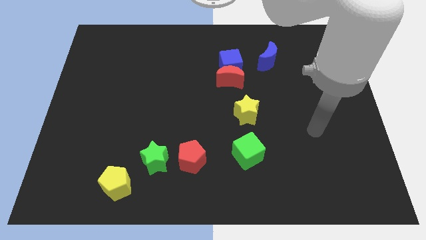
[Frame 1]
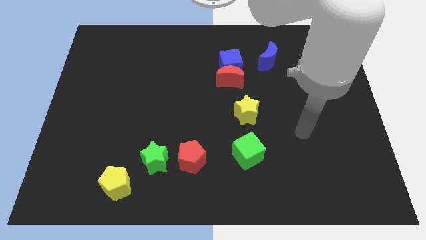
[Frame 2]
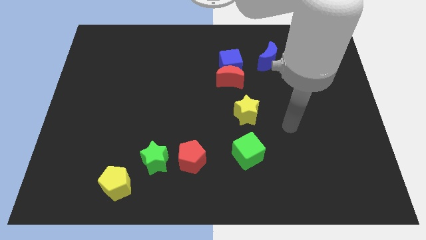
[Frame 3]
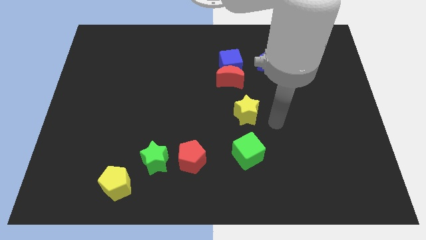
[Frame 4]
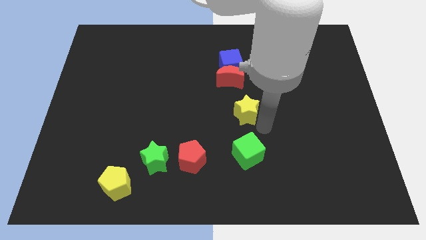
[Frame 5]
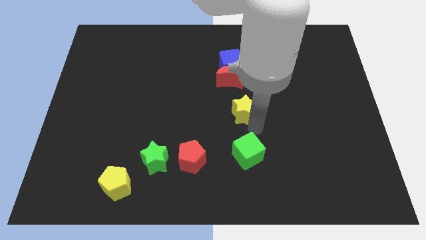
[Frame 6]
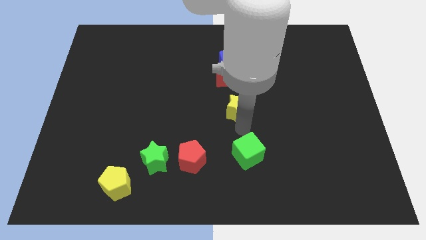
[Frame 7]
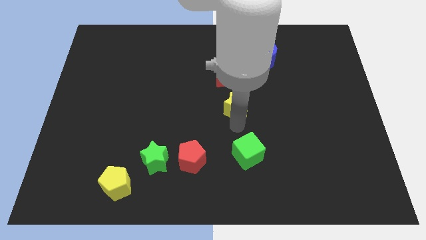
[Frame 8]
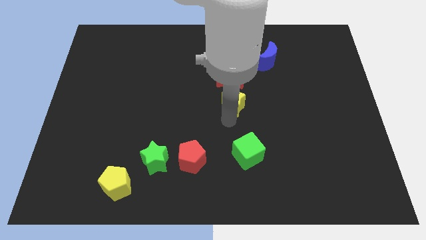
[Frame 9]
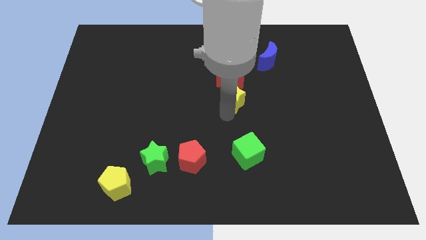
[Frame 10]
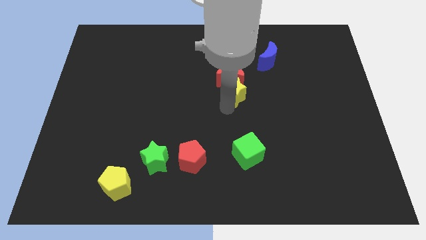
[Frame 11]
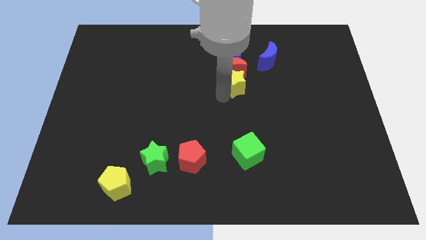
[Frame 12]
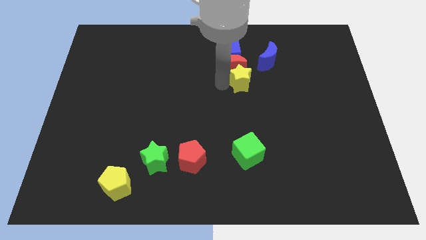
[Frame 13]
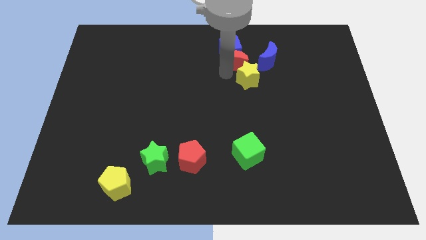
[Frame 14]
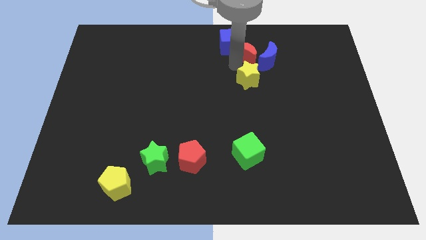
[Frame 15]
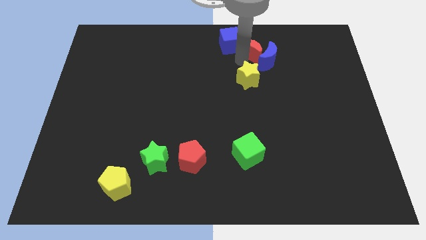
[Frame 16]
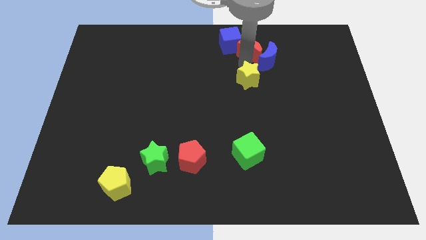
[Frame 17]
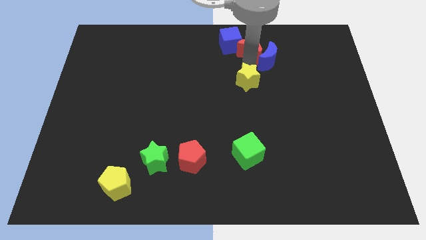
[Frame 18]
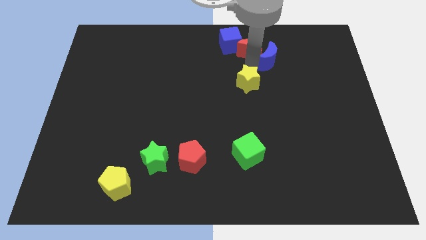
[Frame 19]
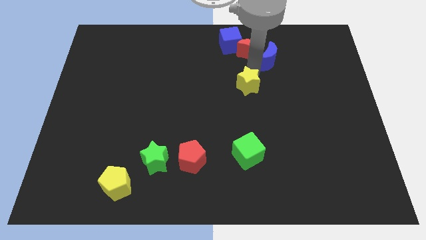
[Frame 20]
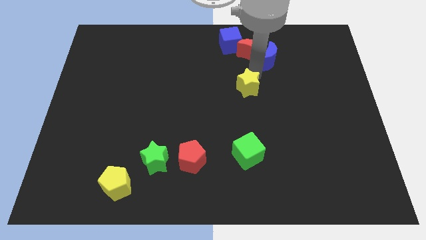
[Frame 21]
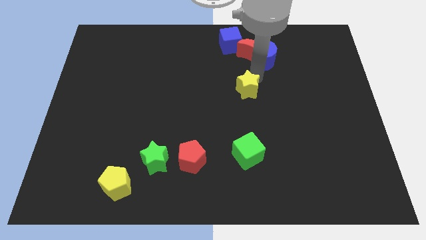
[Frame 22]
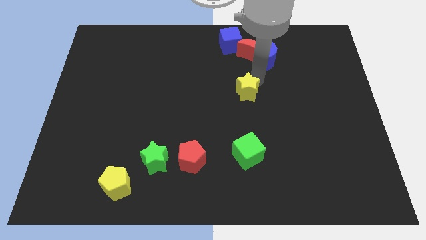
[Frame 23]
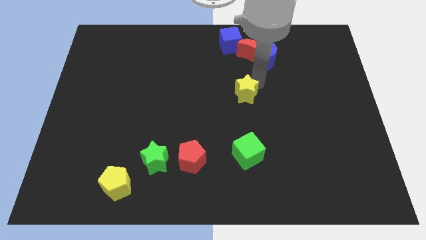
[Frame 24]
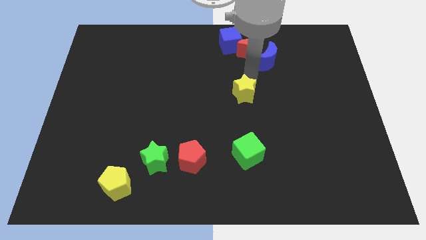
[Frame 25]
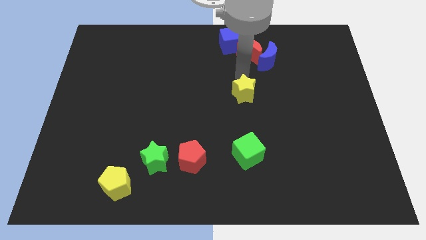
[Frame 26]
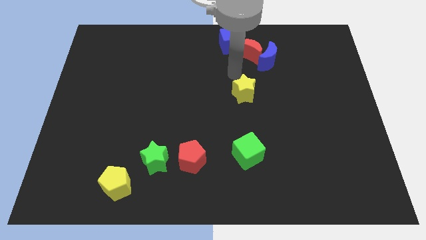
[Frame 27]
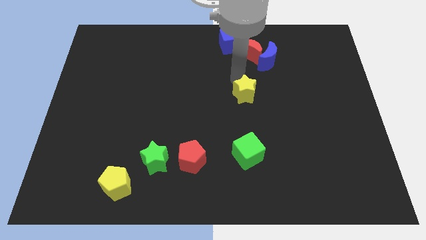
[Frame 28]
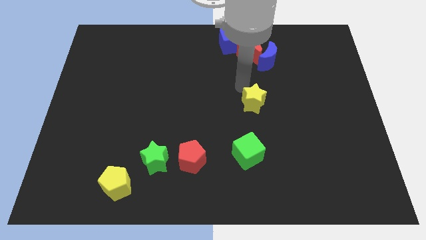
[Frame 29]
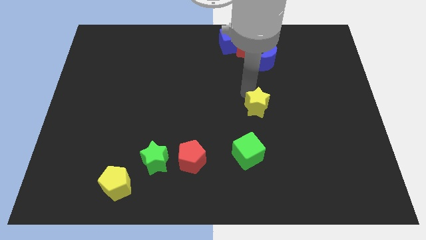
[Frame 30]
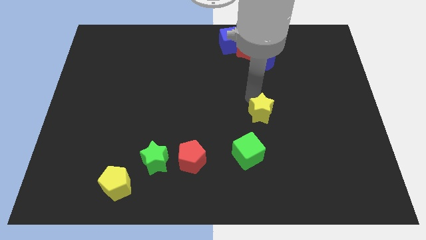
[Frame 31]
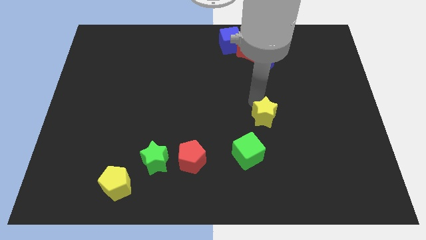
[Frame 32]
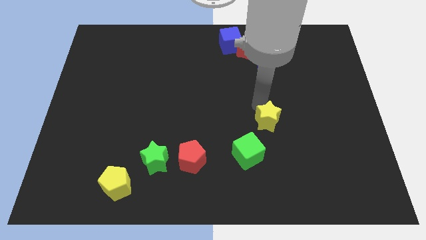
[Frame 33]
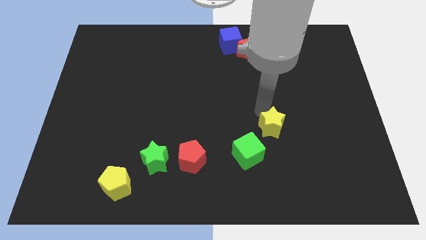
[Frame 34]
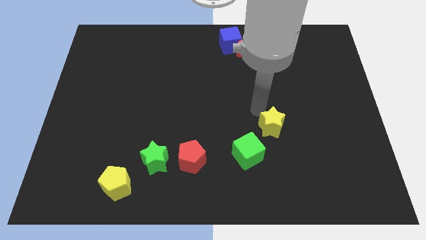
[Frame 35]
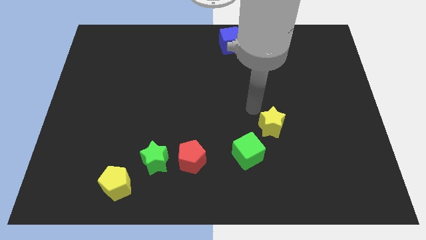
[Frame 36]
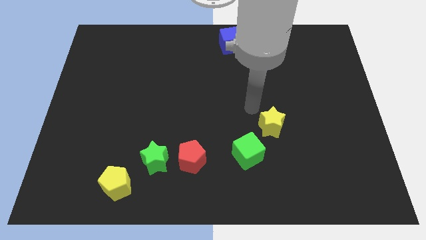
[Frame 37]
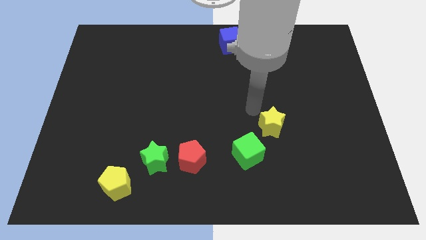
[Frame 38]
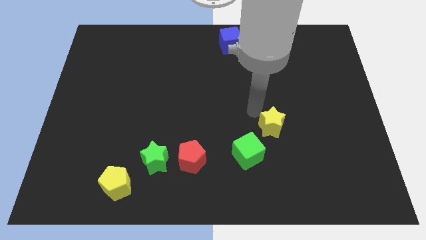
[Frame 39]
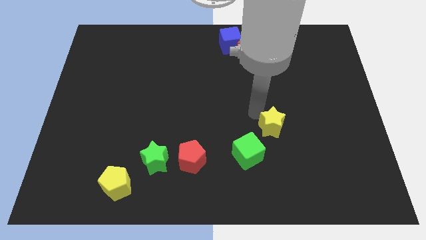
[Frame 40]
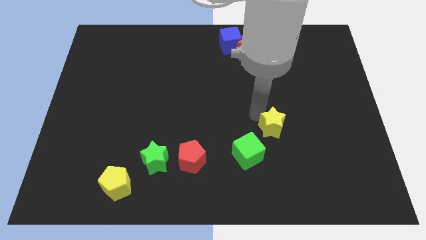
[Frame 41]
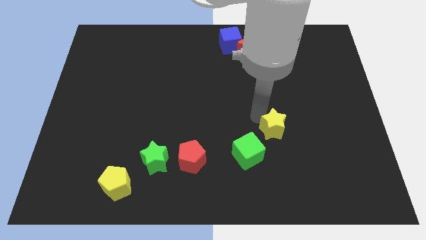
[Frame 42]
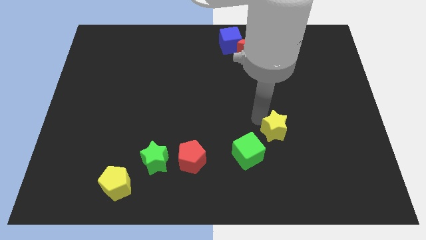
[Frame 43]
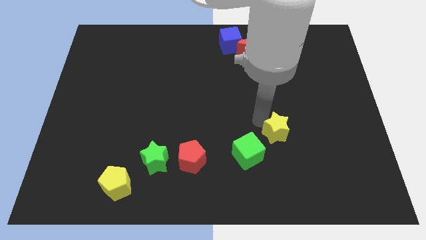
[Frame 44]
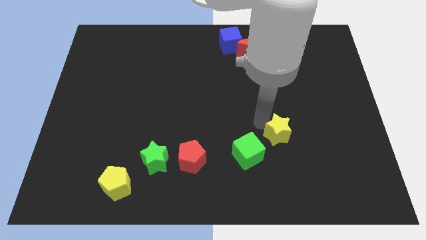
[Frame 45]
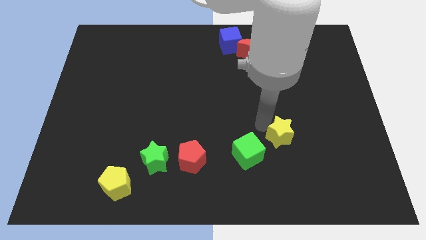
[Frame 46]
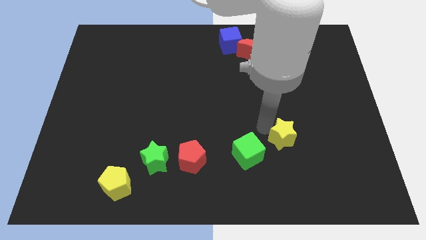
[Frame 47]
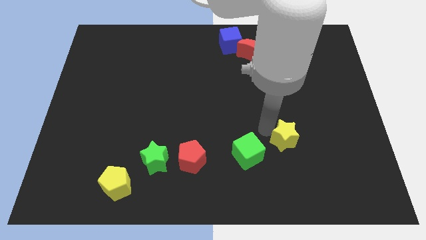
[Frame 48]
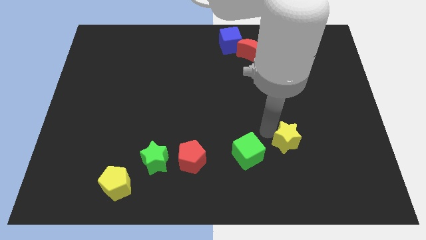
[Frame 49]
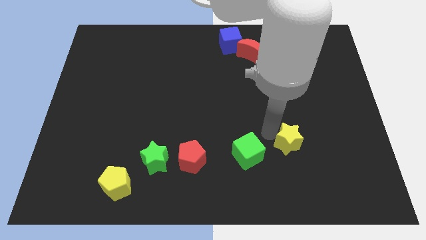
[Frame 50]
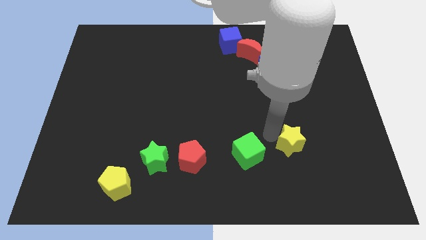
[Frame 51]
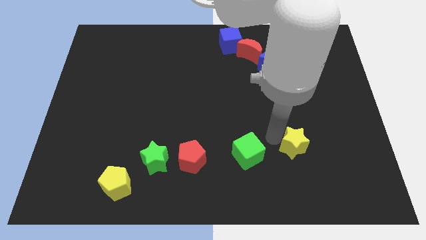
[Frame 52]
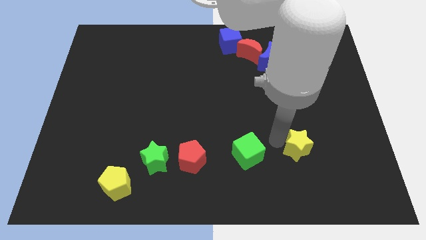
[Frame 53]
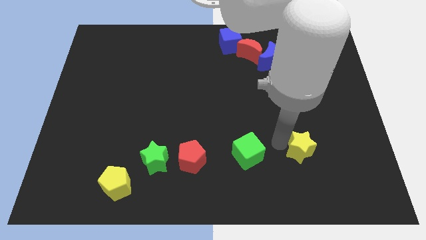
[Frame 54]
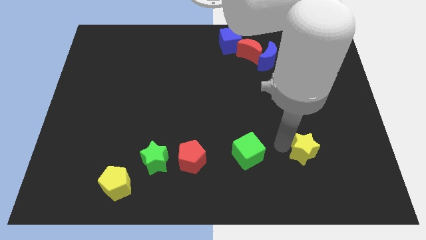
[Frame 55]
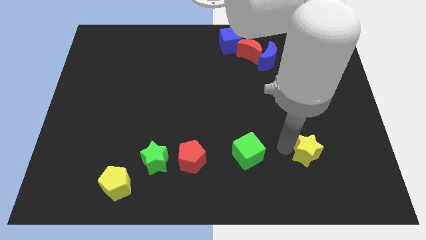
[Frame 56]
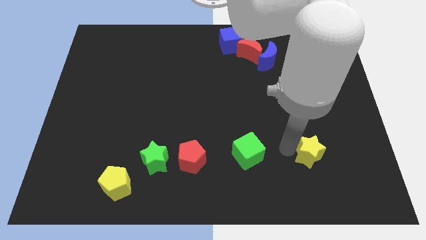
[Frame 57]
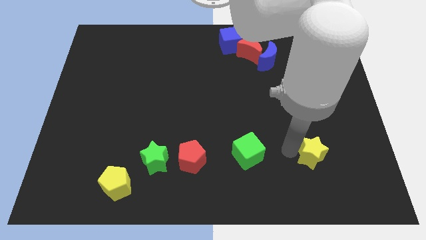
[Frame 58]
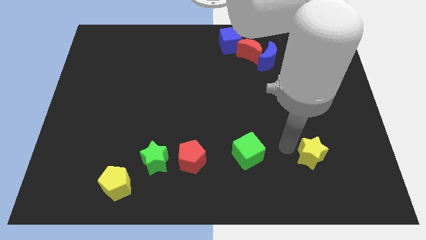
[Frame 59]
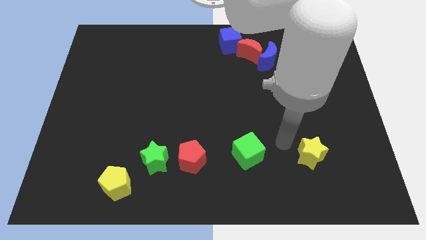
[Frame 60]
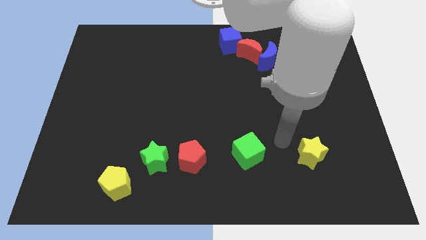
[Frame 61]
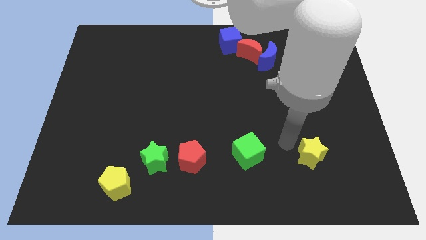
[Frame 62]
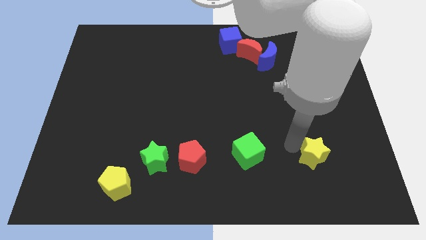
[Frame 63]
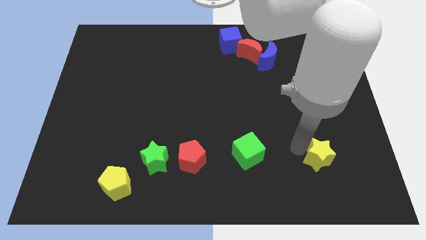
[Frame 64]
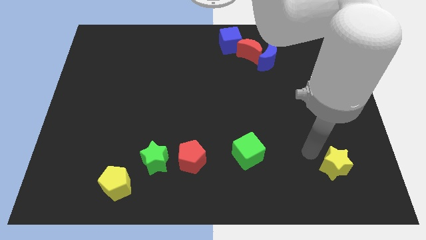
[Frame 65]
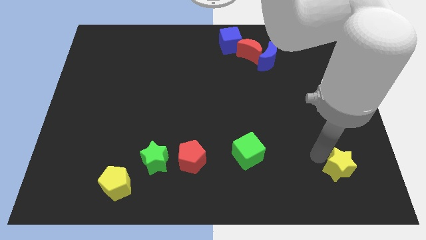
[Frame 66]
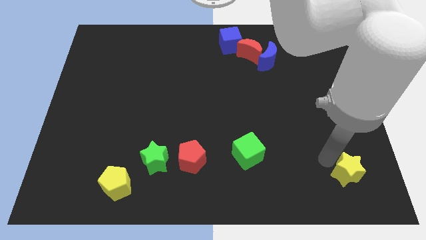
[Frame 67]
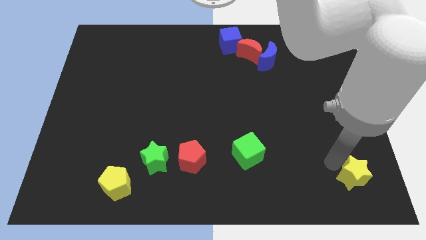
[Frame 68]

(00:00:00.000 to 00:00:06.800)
push the yellow star to the lower right corner
